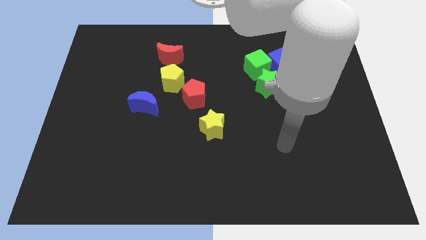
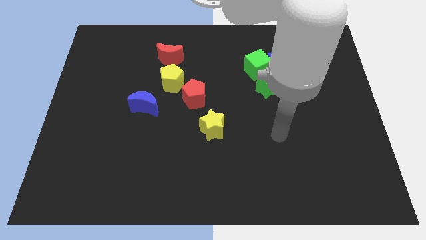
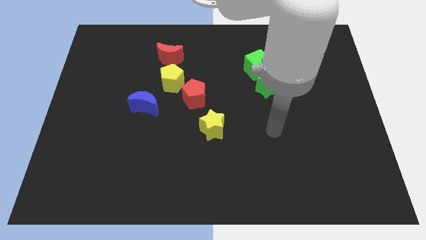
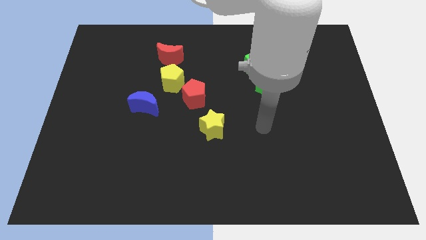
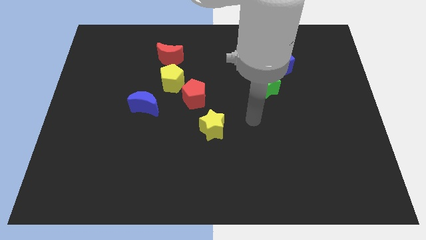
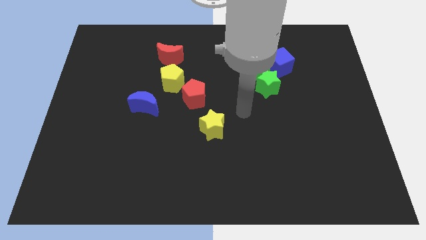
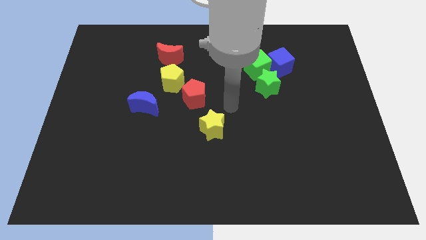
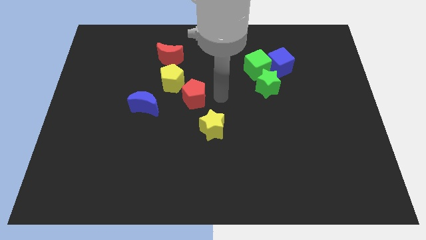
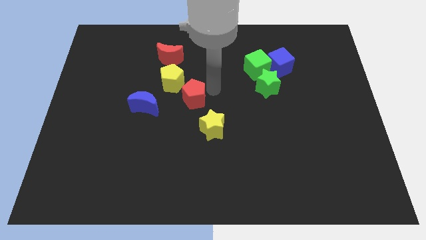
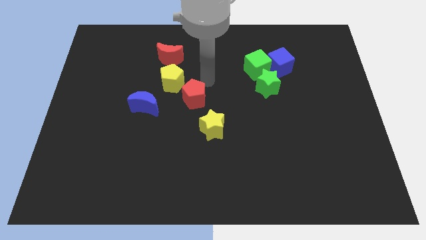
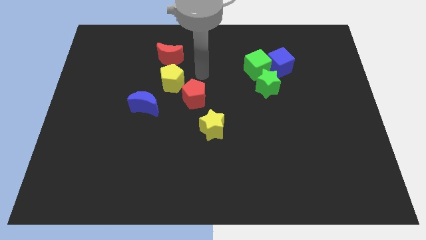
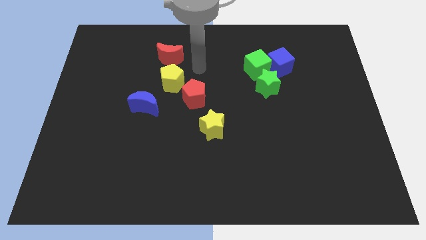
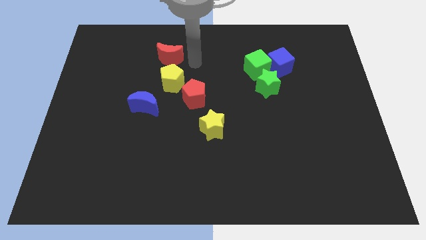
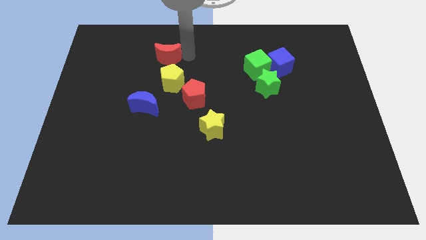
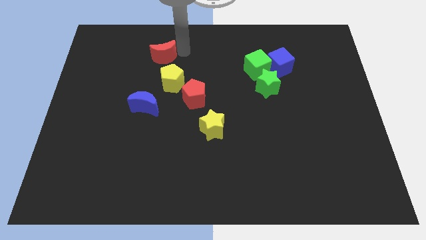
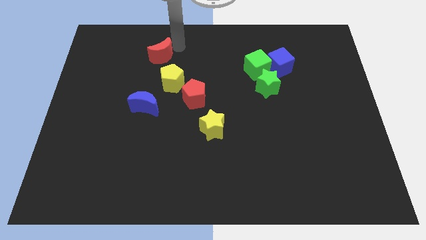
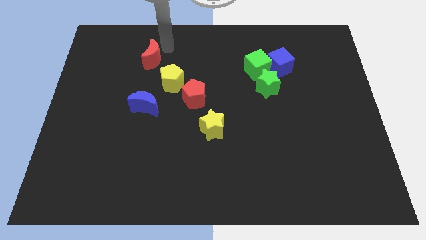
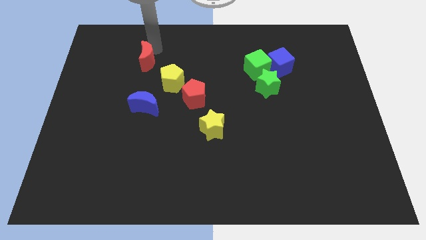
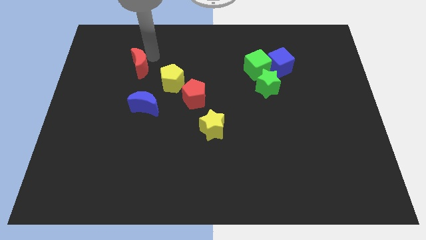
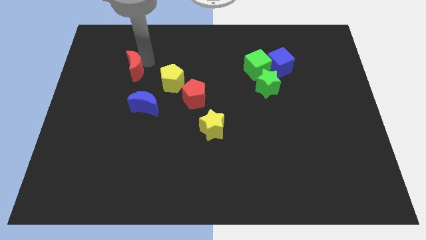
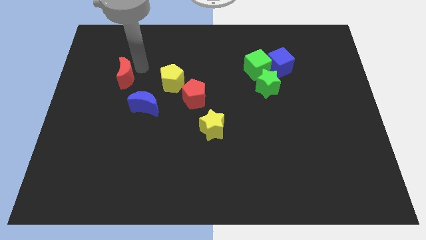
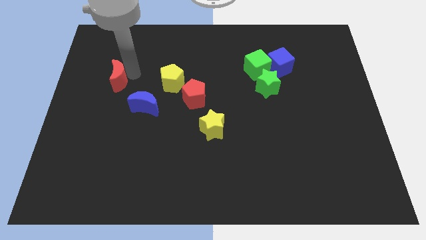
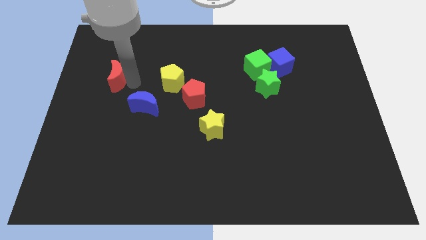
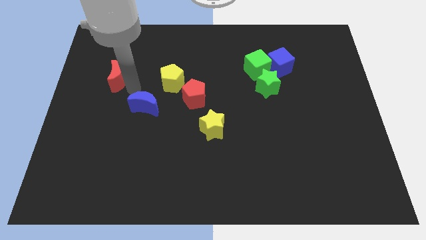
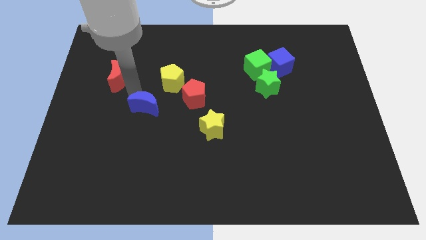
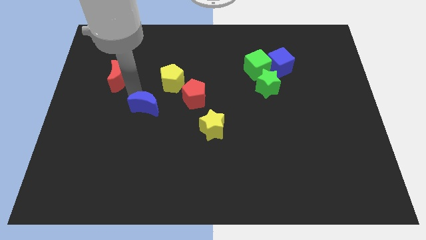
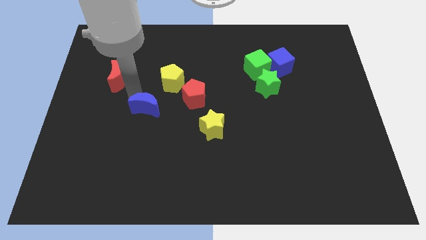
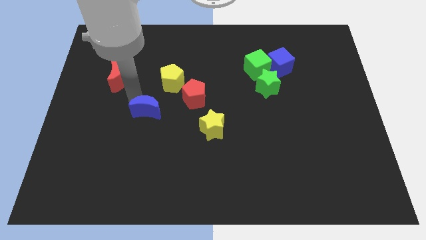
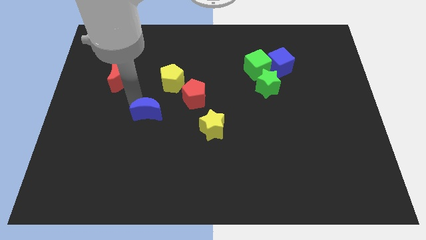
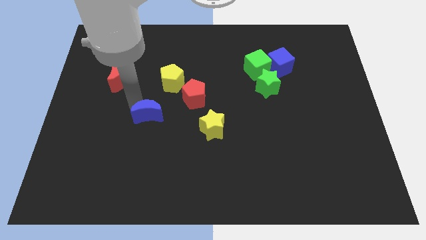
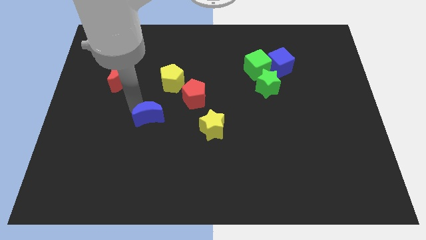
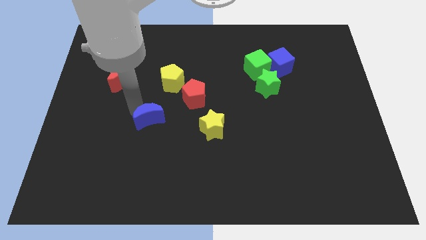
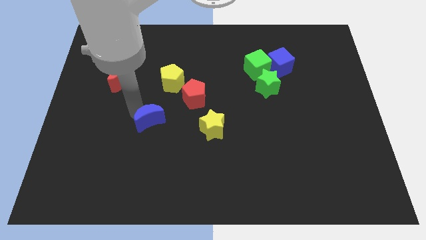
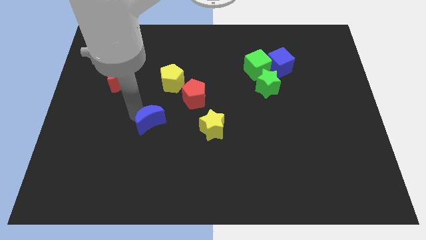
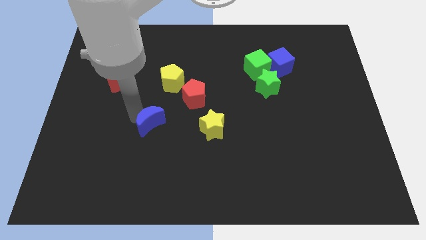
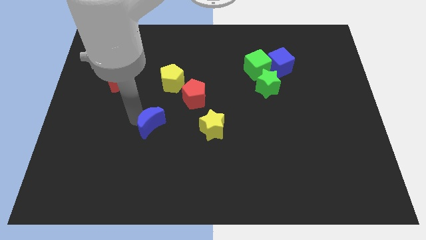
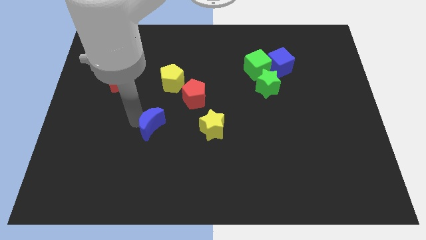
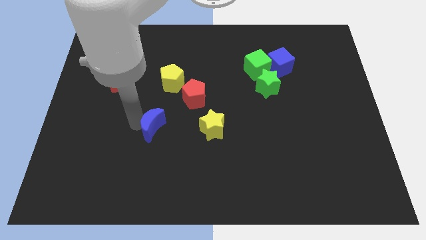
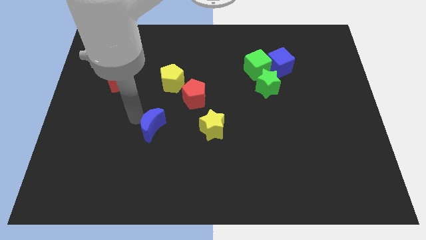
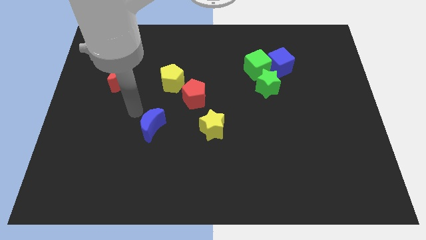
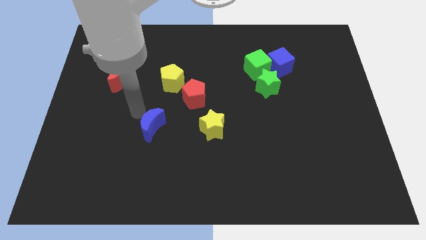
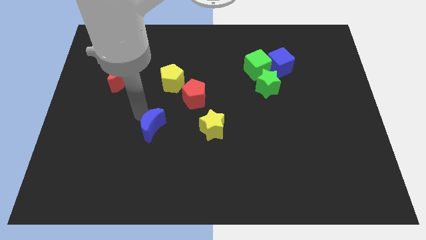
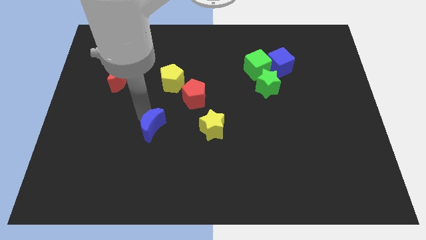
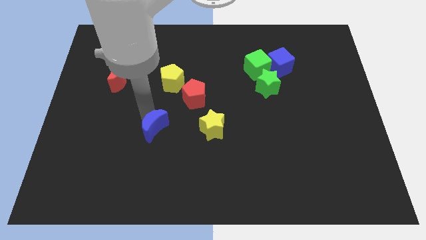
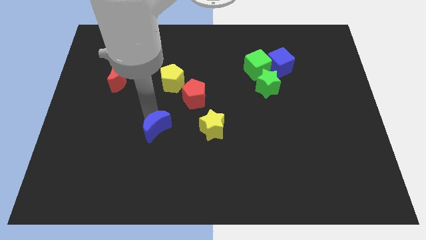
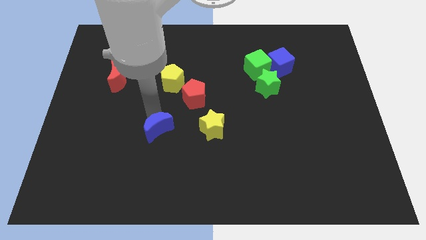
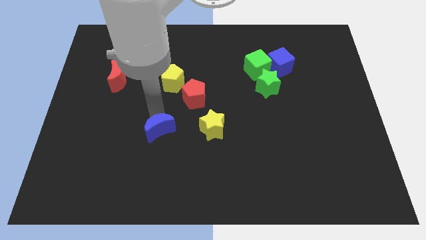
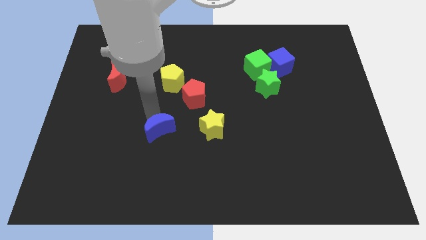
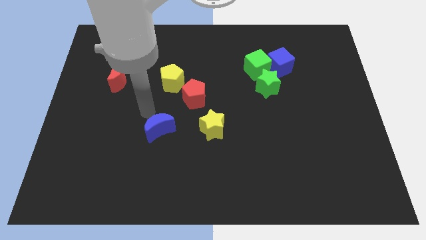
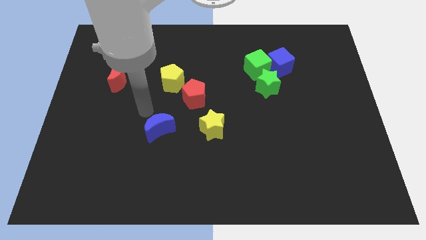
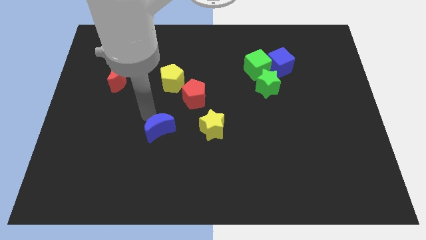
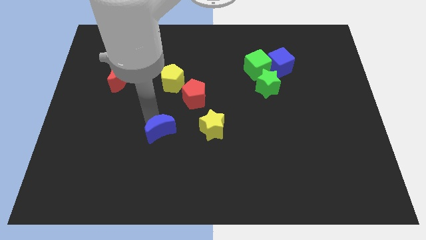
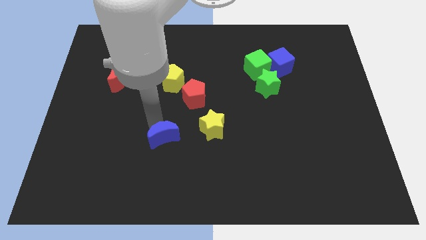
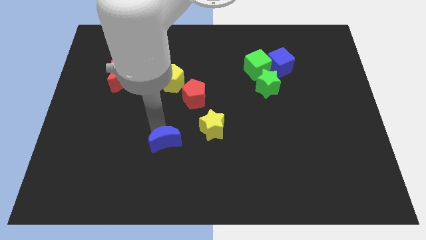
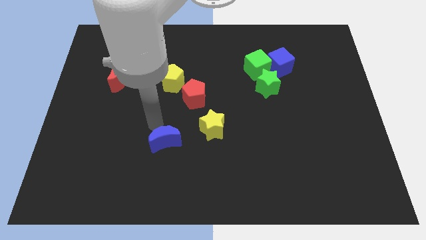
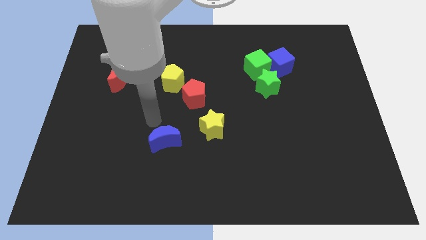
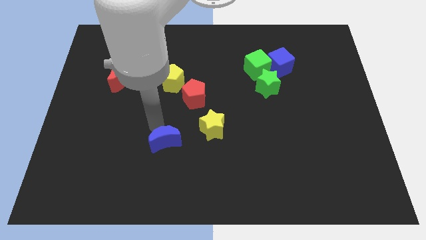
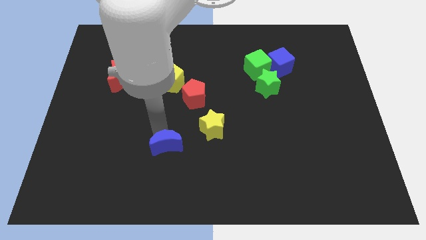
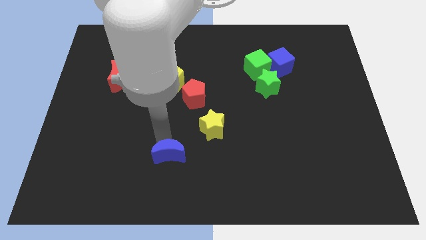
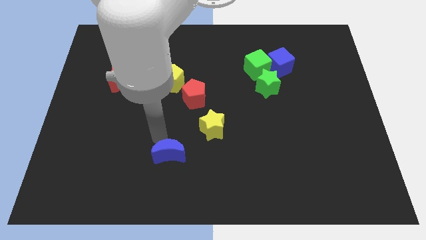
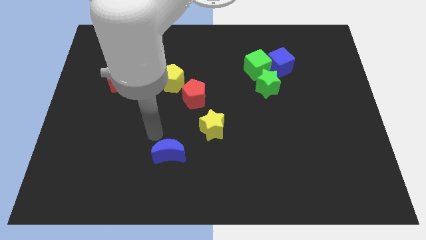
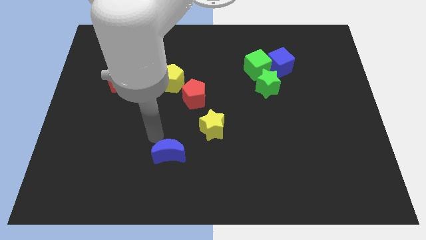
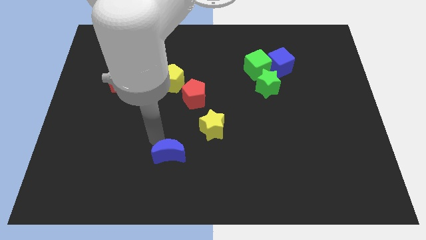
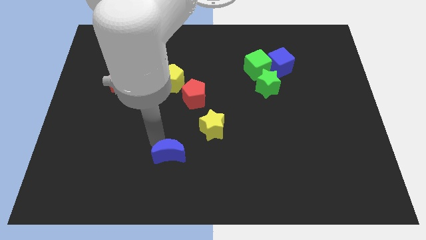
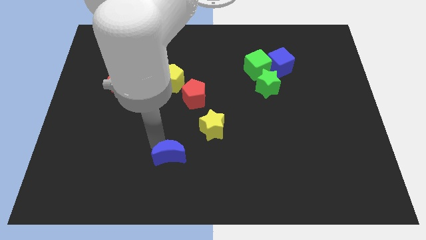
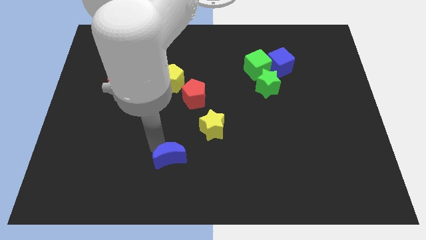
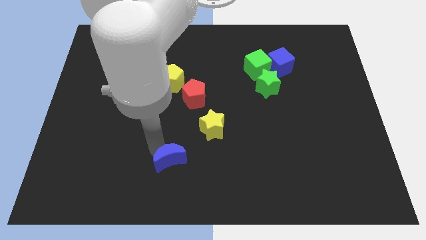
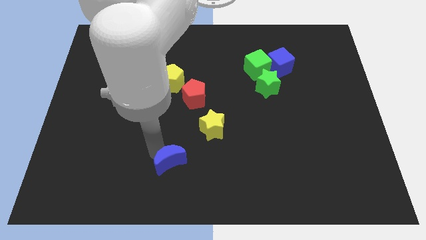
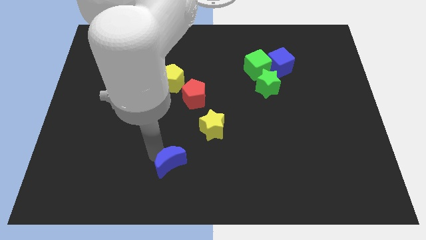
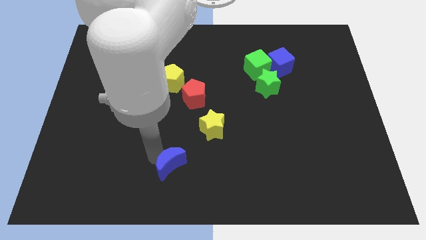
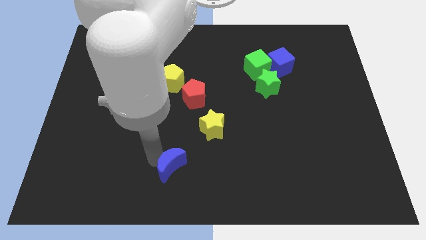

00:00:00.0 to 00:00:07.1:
slide the blue moon to the bottom
